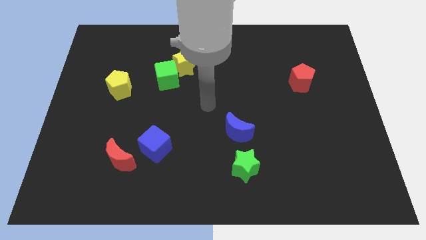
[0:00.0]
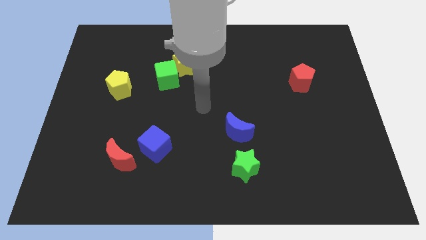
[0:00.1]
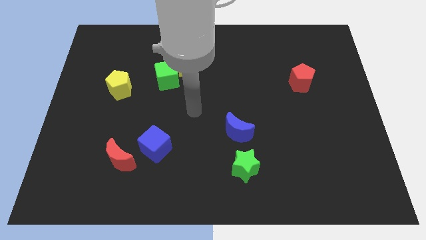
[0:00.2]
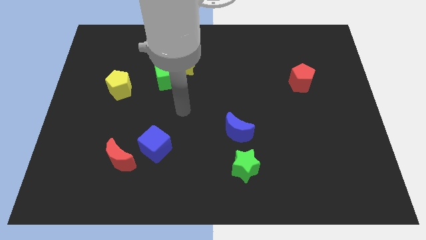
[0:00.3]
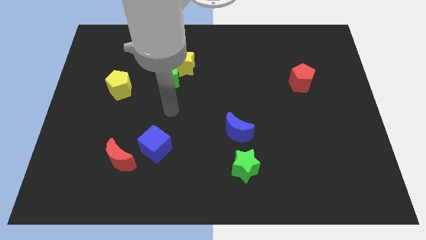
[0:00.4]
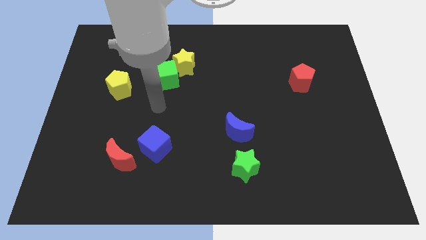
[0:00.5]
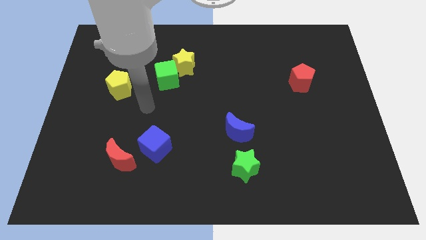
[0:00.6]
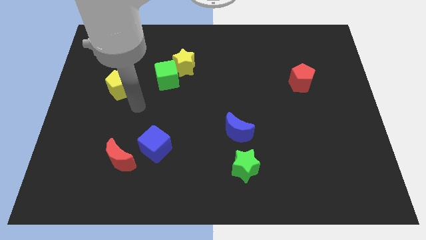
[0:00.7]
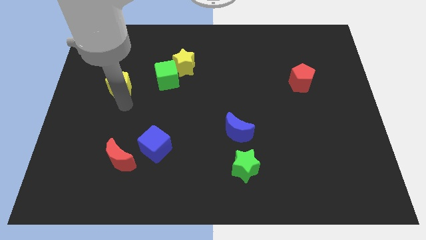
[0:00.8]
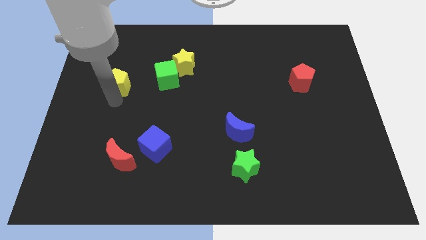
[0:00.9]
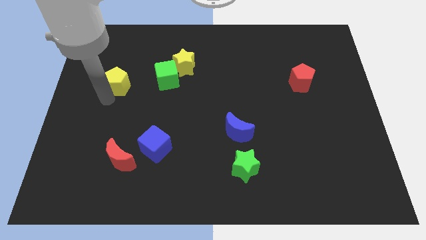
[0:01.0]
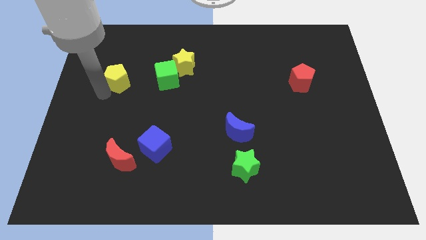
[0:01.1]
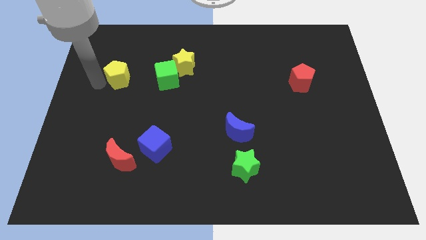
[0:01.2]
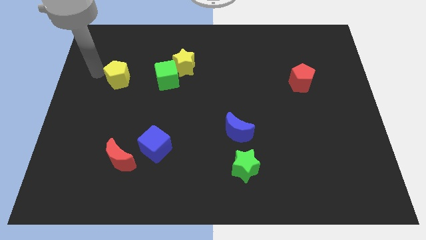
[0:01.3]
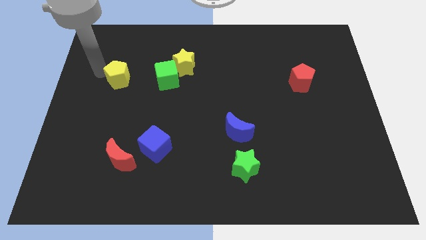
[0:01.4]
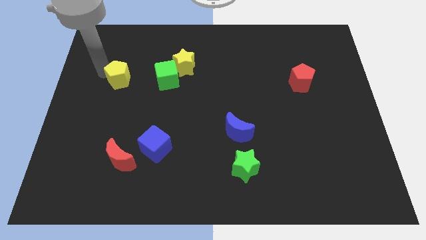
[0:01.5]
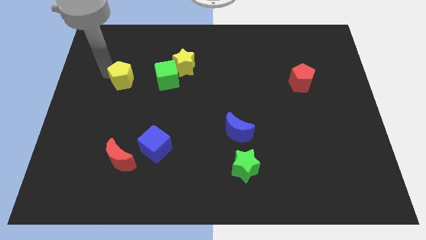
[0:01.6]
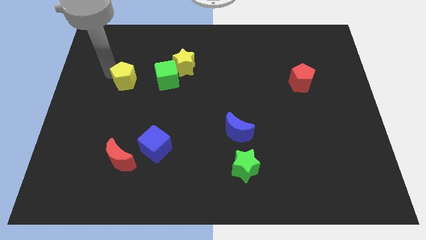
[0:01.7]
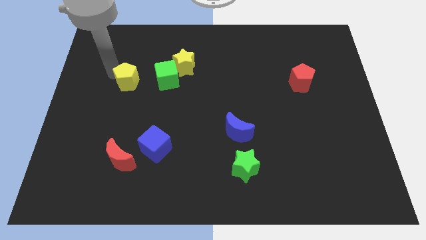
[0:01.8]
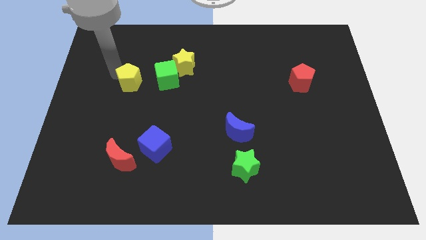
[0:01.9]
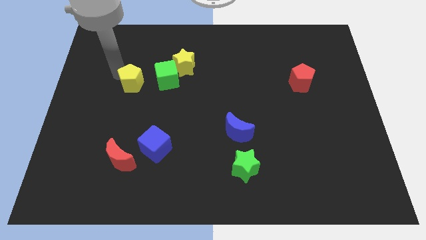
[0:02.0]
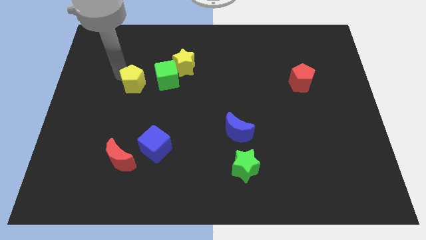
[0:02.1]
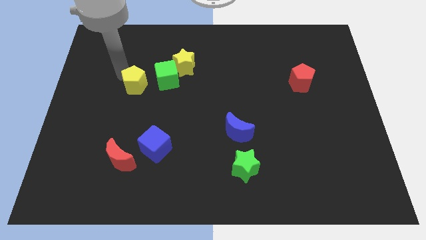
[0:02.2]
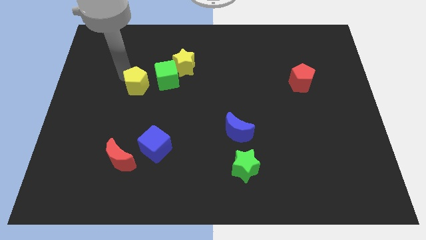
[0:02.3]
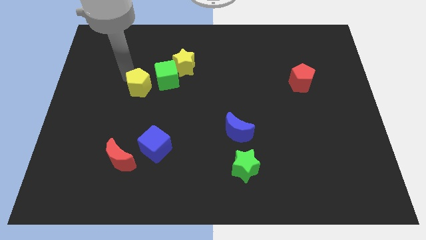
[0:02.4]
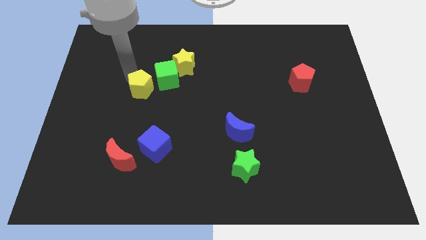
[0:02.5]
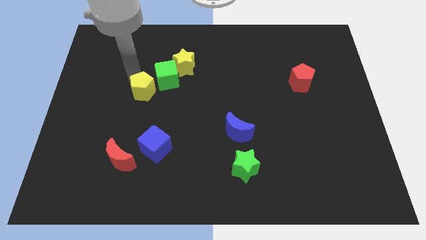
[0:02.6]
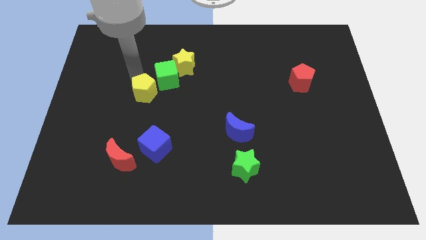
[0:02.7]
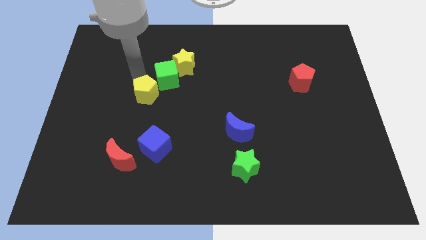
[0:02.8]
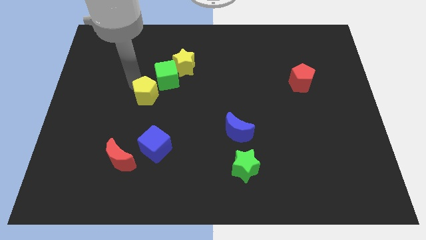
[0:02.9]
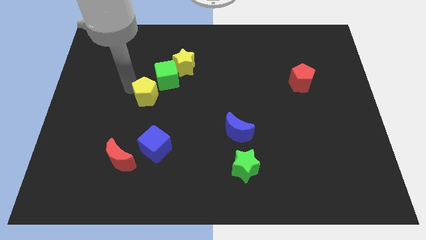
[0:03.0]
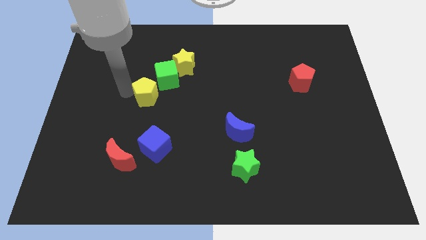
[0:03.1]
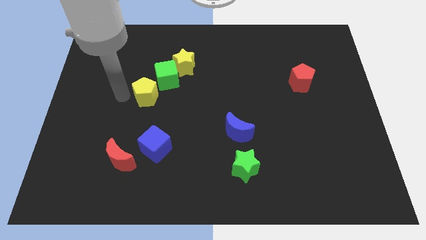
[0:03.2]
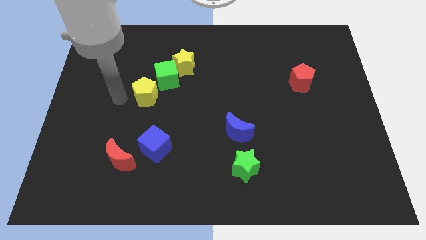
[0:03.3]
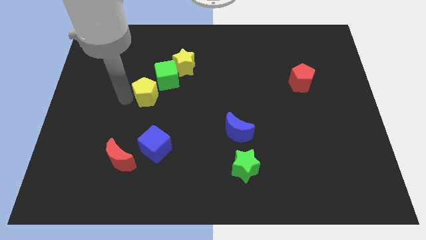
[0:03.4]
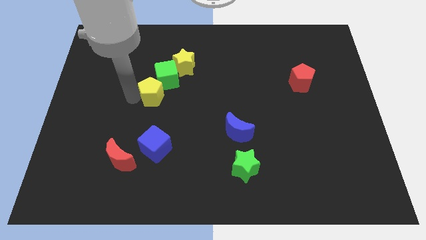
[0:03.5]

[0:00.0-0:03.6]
slide the yellow pentagon to the right a little

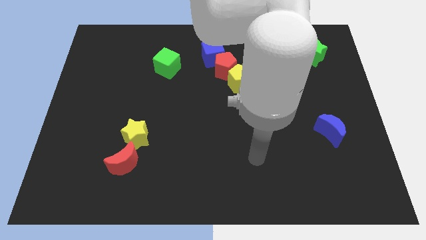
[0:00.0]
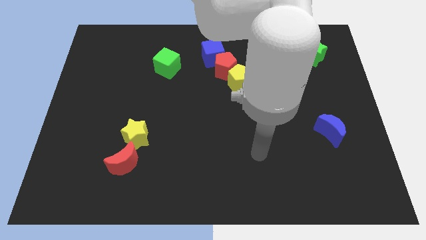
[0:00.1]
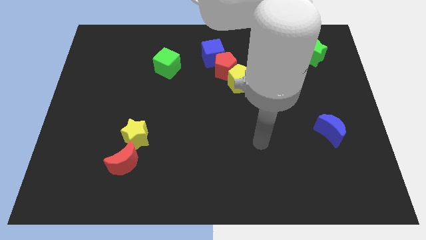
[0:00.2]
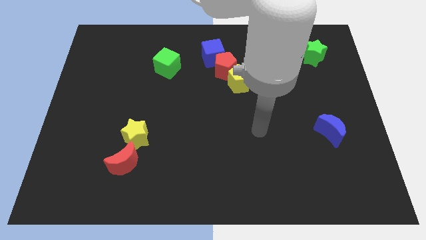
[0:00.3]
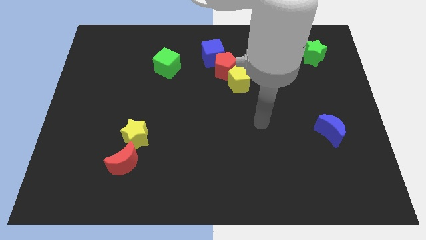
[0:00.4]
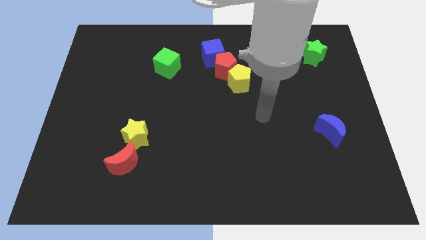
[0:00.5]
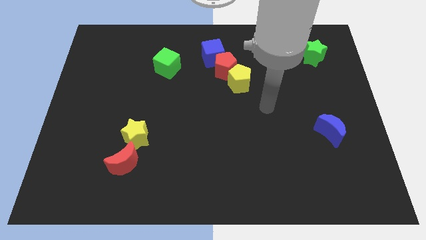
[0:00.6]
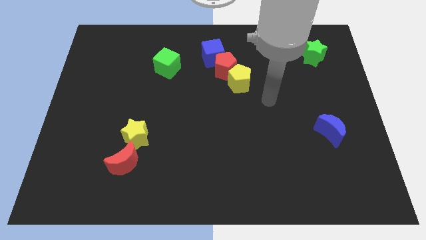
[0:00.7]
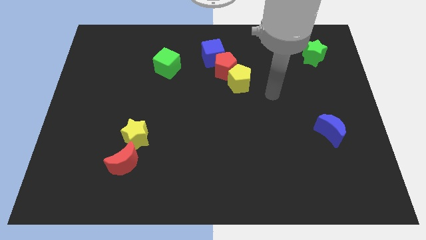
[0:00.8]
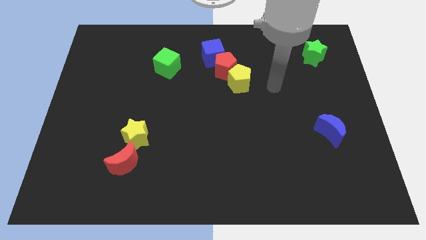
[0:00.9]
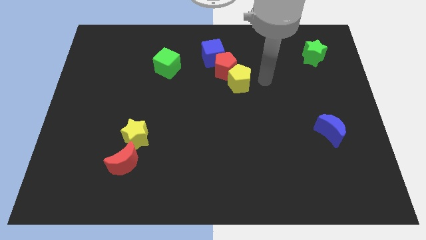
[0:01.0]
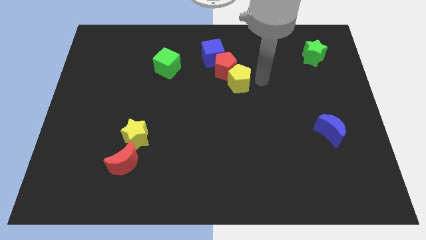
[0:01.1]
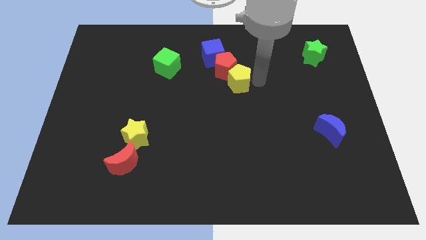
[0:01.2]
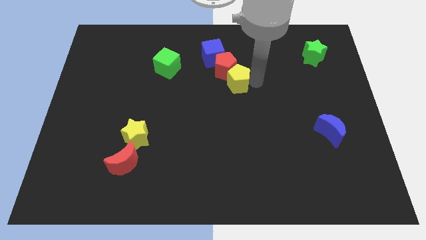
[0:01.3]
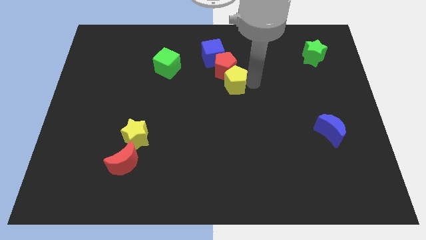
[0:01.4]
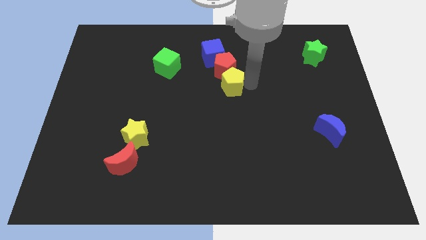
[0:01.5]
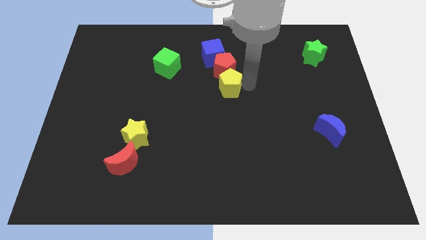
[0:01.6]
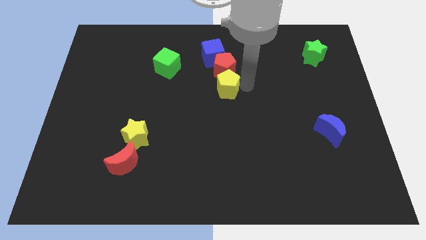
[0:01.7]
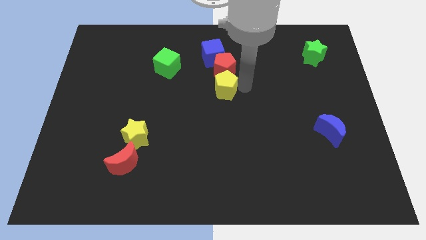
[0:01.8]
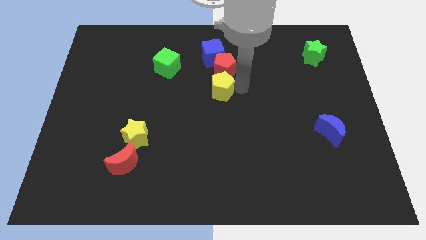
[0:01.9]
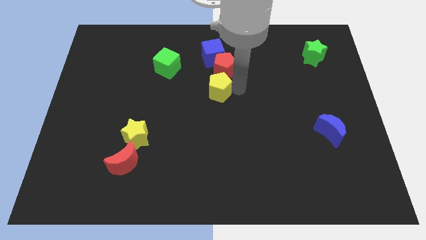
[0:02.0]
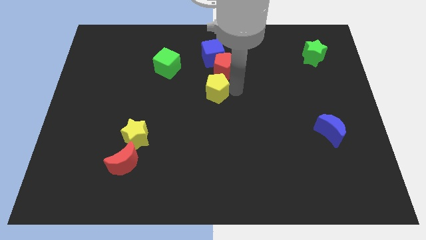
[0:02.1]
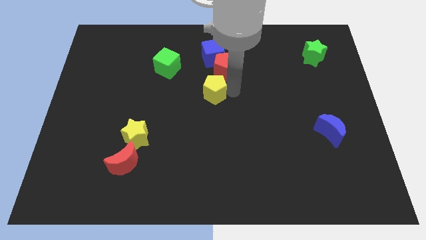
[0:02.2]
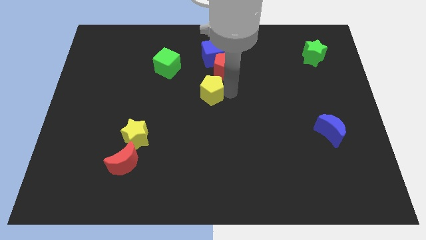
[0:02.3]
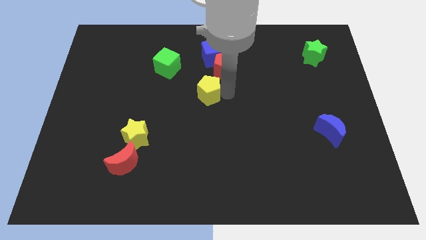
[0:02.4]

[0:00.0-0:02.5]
slide the yellow pentagon somewhat to the left

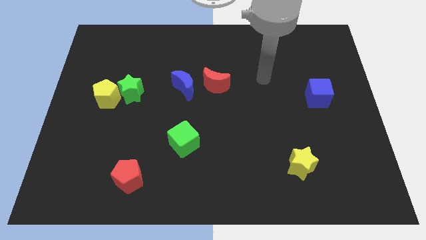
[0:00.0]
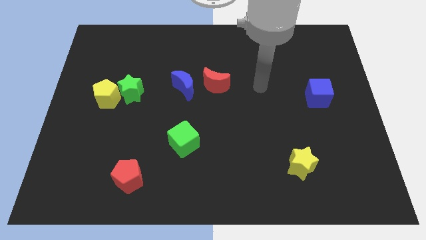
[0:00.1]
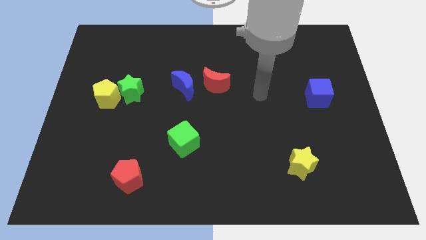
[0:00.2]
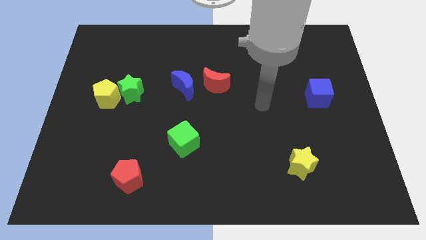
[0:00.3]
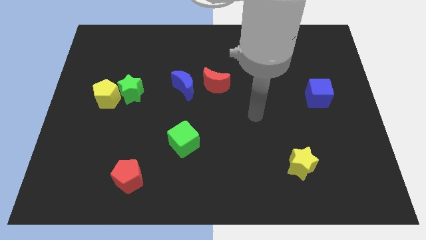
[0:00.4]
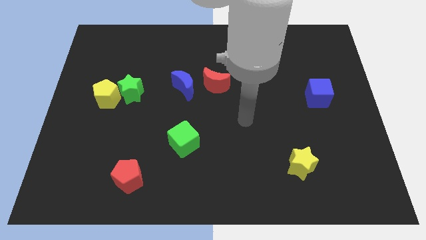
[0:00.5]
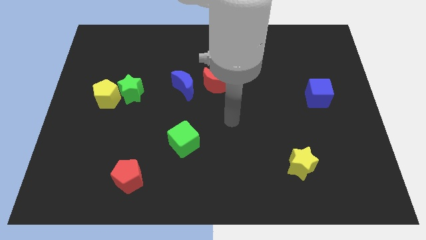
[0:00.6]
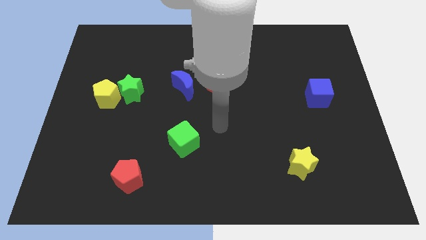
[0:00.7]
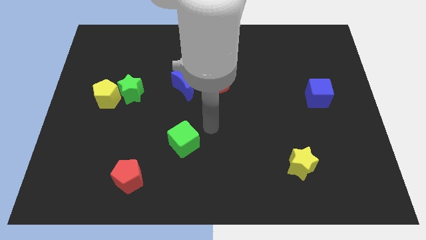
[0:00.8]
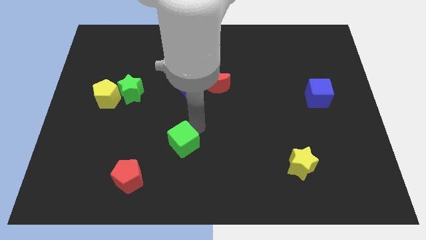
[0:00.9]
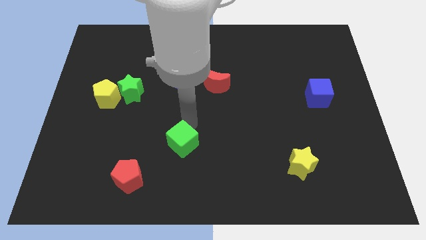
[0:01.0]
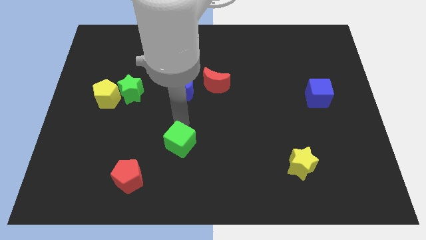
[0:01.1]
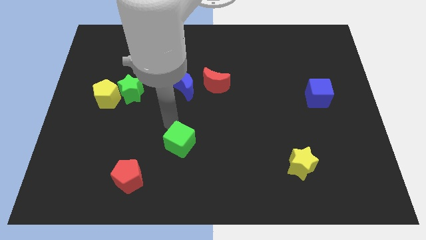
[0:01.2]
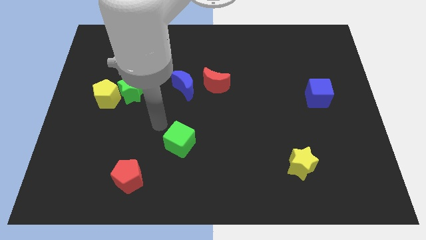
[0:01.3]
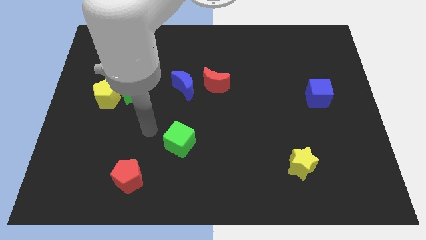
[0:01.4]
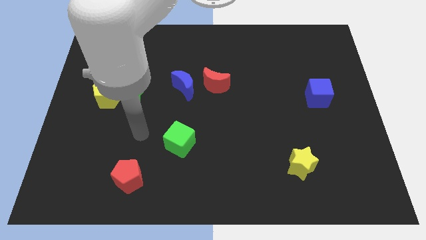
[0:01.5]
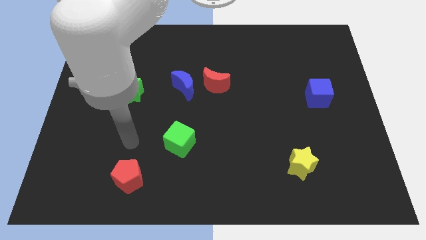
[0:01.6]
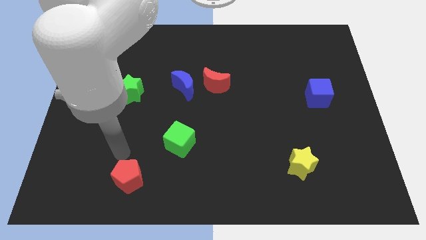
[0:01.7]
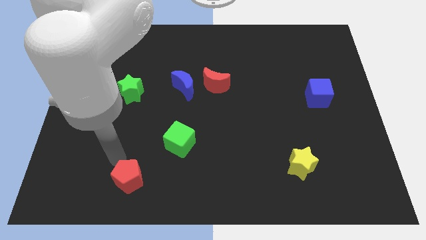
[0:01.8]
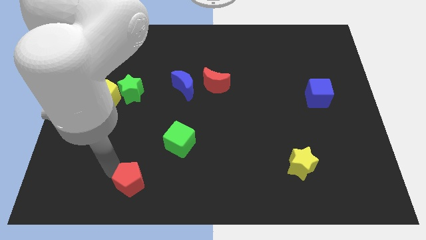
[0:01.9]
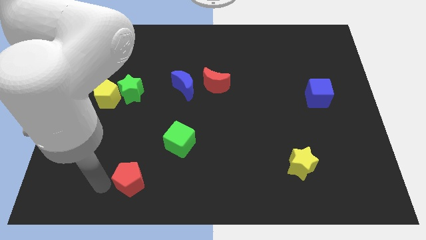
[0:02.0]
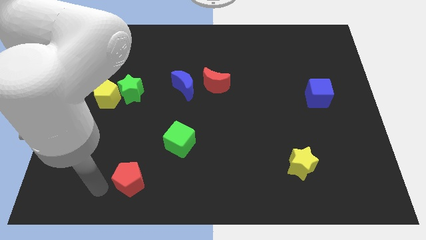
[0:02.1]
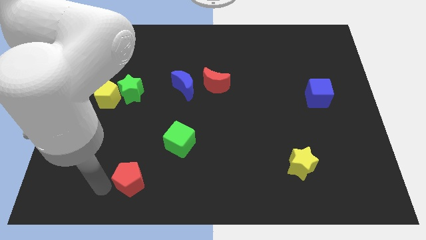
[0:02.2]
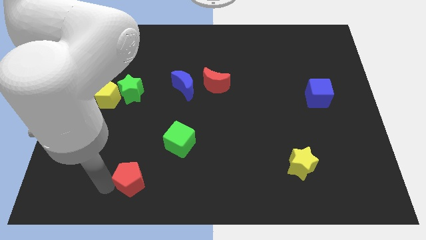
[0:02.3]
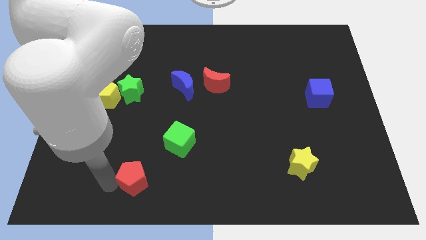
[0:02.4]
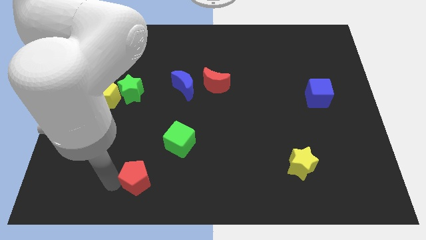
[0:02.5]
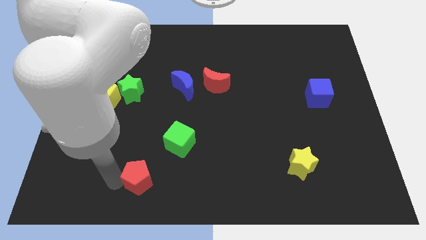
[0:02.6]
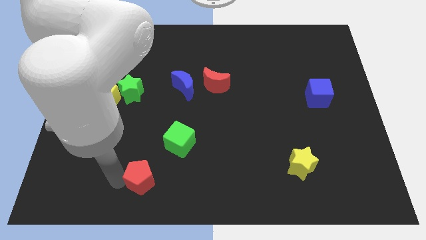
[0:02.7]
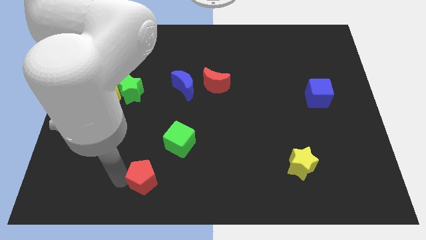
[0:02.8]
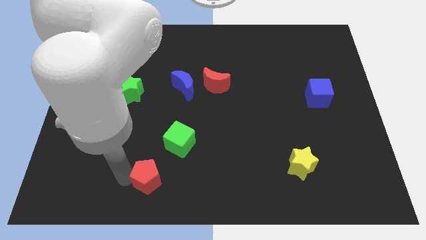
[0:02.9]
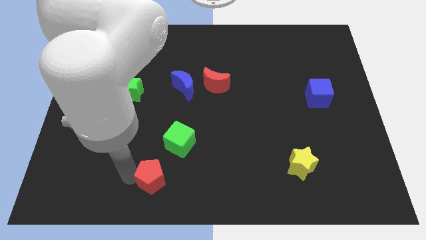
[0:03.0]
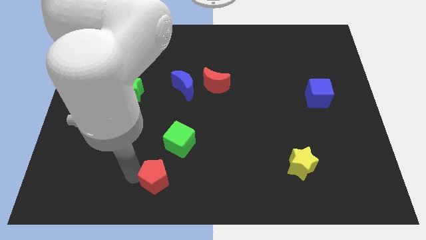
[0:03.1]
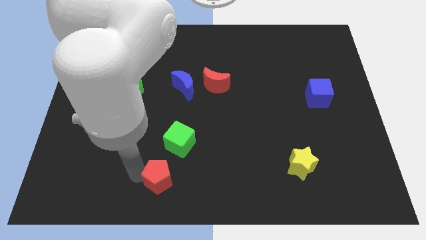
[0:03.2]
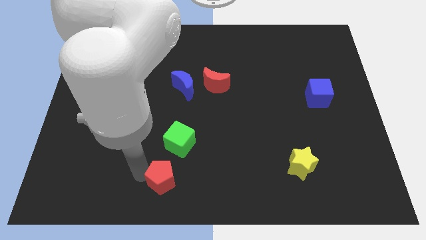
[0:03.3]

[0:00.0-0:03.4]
move the red pentagon somewhat right
